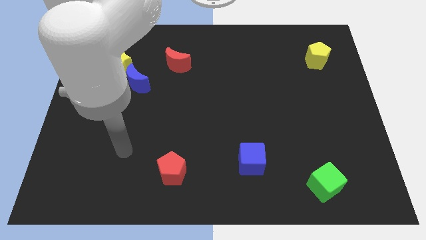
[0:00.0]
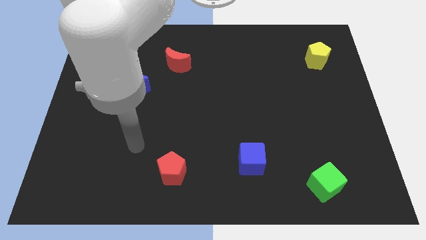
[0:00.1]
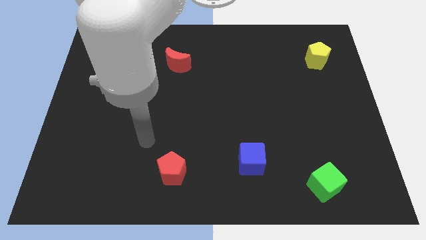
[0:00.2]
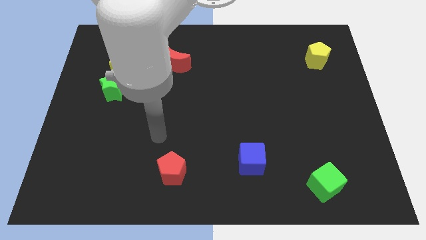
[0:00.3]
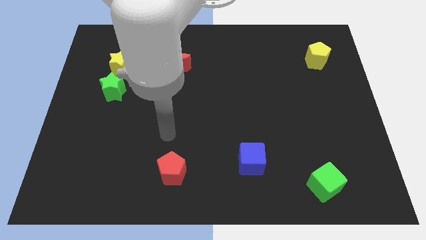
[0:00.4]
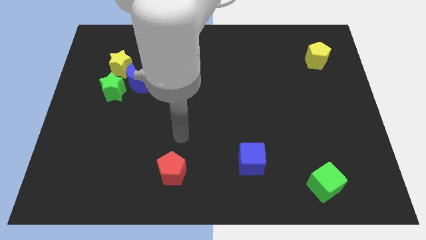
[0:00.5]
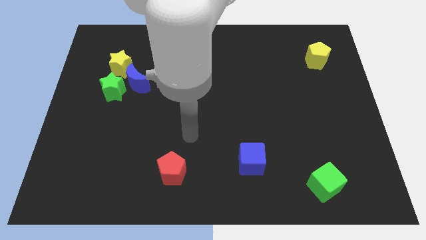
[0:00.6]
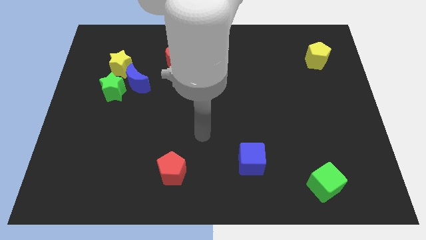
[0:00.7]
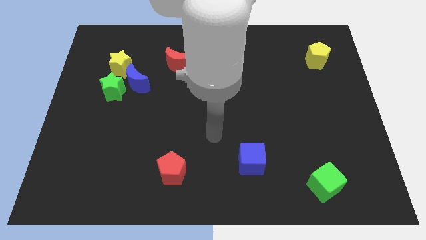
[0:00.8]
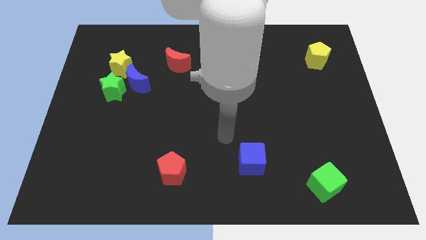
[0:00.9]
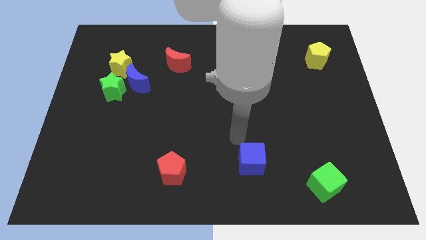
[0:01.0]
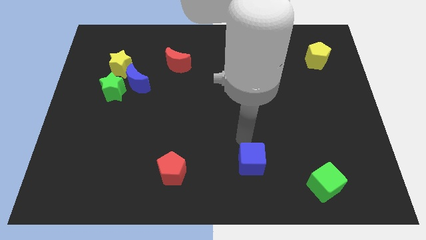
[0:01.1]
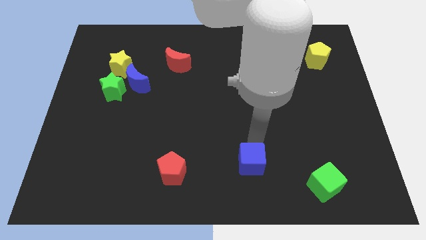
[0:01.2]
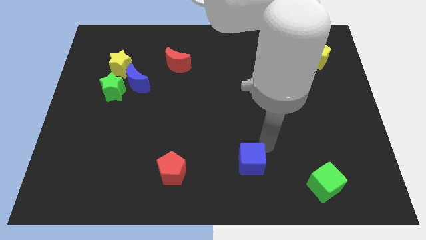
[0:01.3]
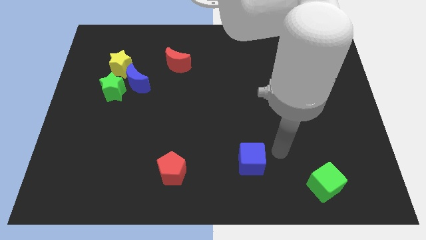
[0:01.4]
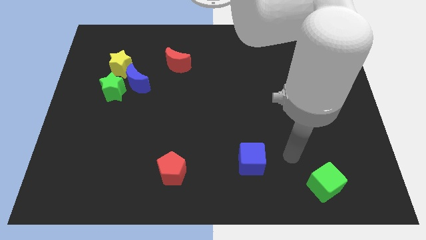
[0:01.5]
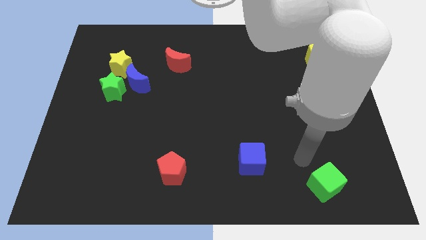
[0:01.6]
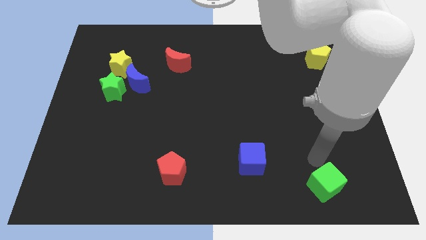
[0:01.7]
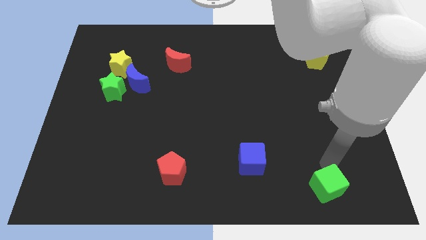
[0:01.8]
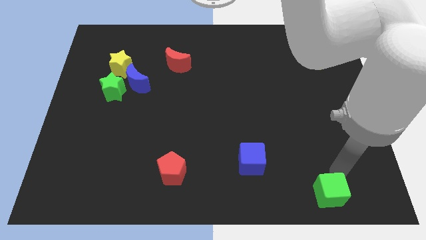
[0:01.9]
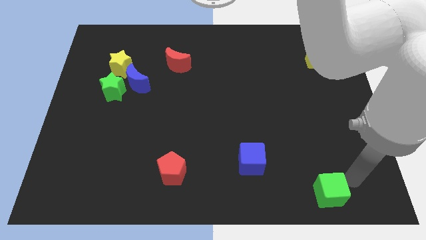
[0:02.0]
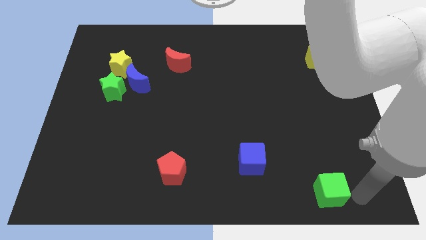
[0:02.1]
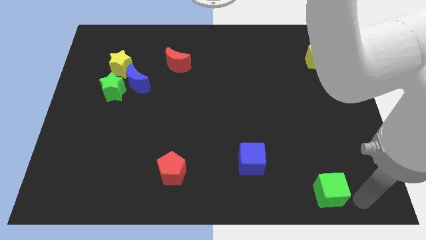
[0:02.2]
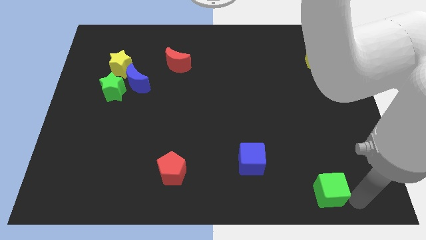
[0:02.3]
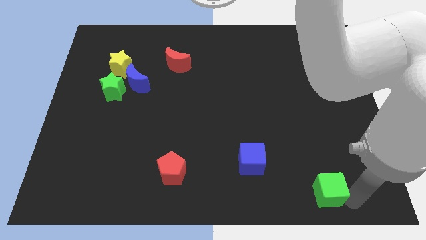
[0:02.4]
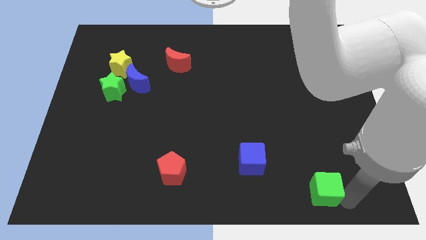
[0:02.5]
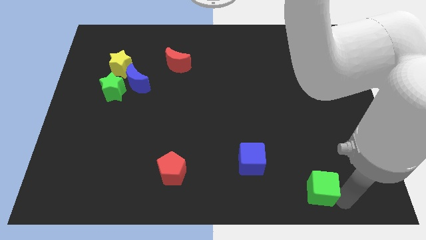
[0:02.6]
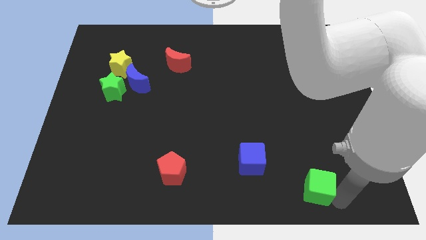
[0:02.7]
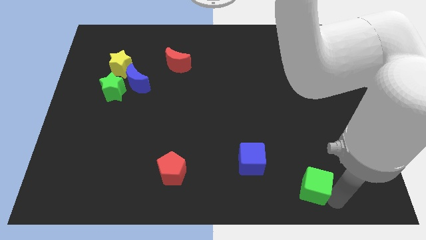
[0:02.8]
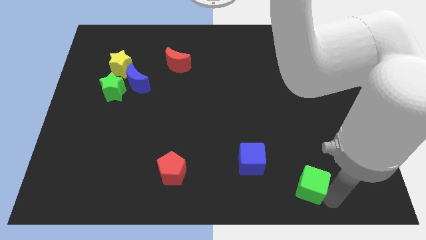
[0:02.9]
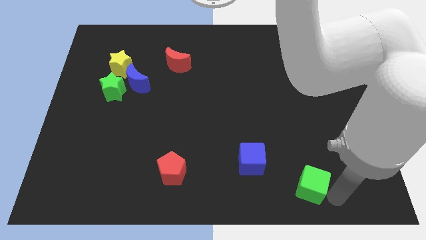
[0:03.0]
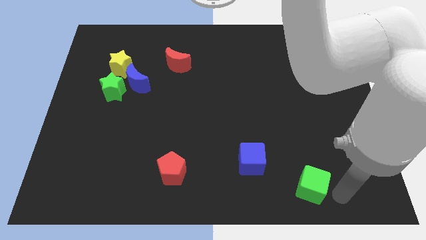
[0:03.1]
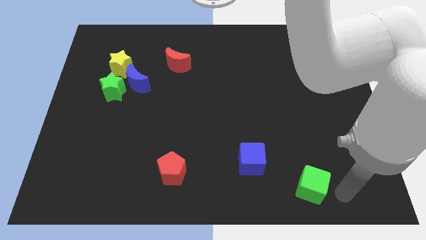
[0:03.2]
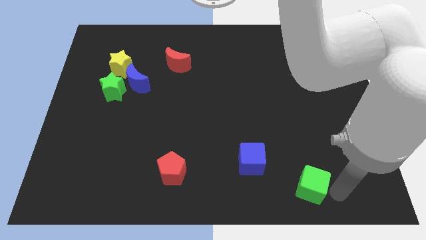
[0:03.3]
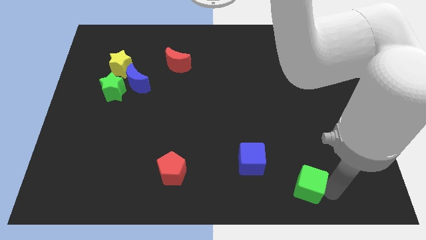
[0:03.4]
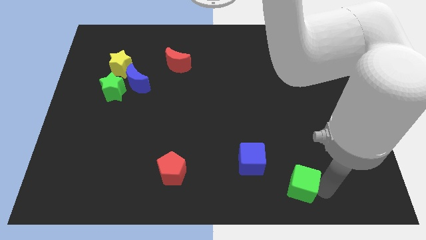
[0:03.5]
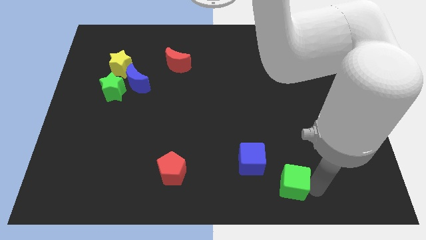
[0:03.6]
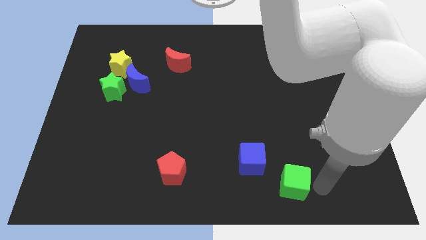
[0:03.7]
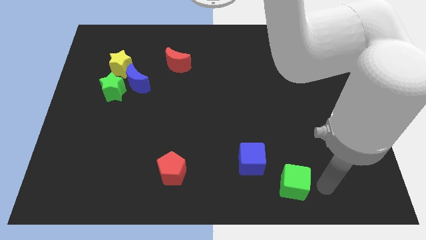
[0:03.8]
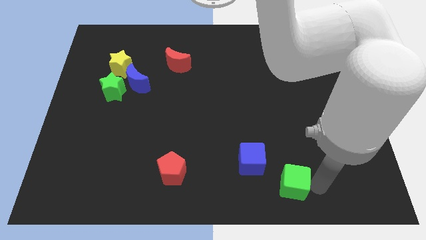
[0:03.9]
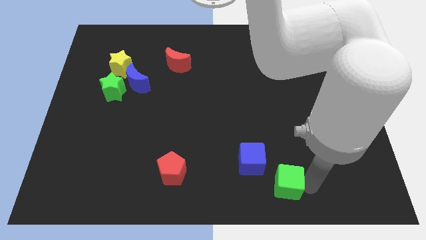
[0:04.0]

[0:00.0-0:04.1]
slightly slide the green cube to the left

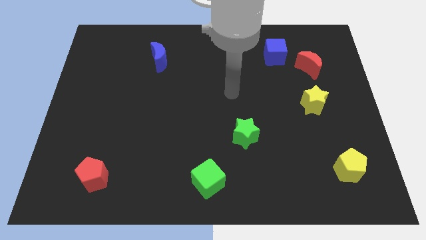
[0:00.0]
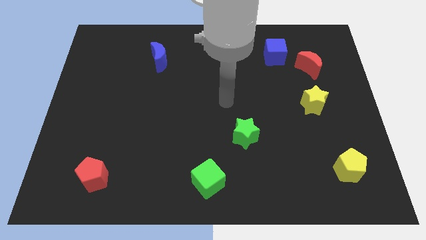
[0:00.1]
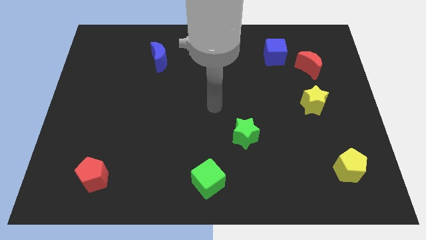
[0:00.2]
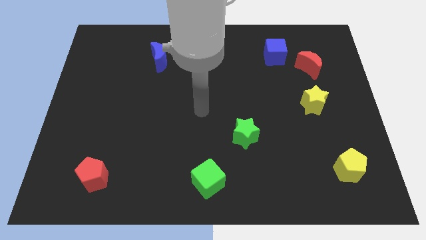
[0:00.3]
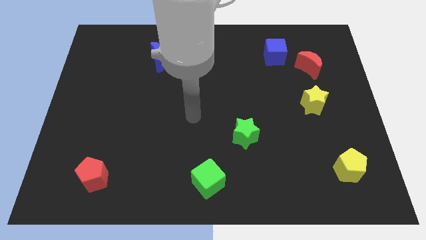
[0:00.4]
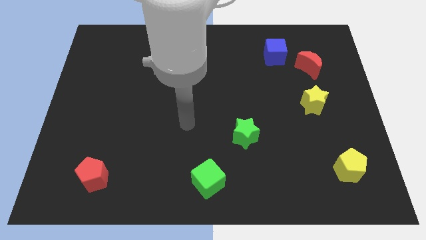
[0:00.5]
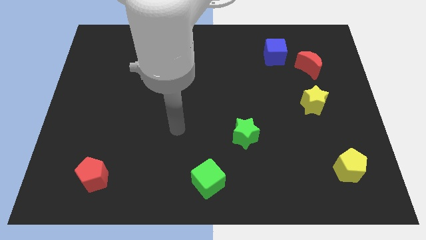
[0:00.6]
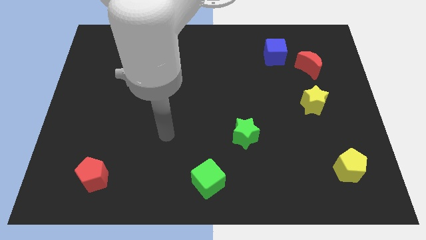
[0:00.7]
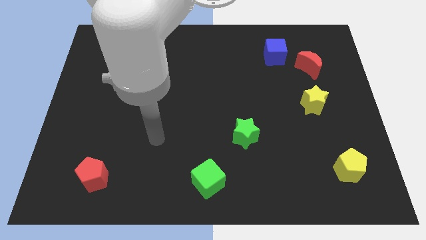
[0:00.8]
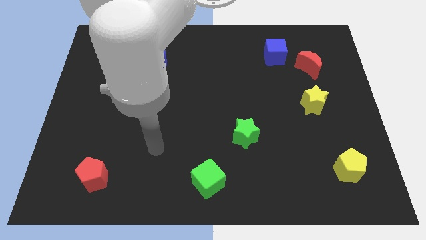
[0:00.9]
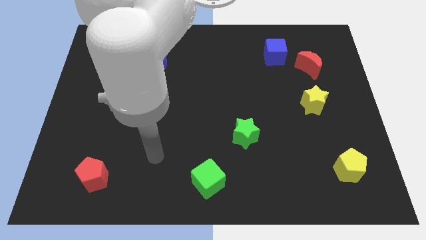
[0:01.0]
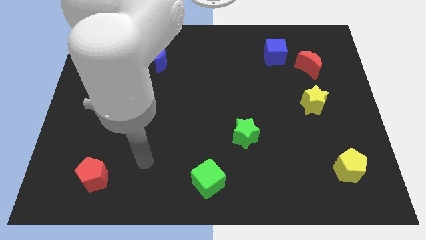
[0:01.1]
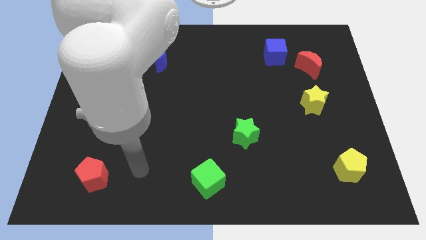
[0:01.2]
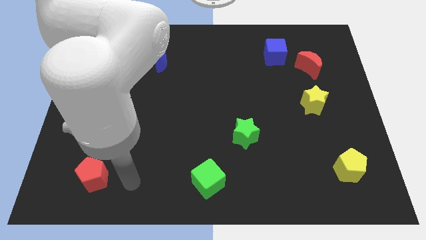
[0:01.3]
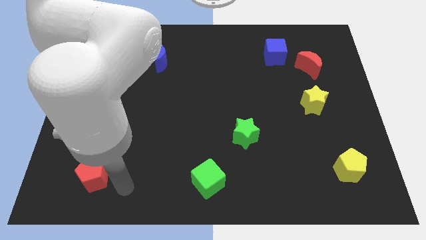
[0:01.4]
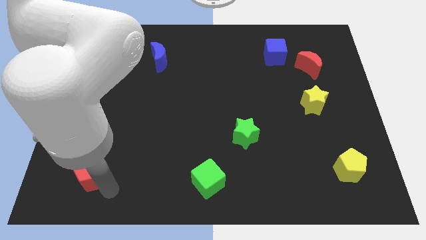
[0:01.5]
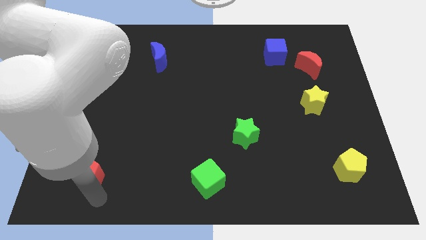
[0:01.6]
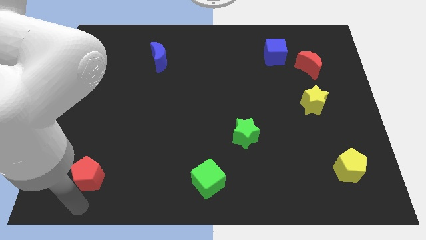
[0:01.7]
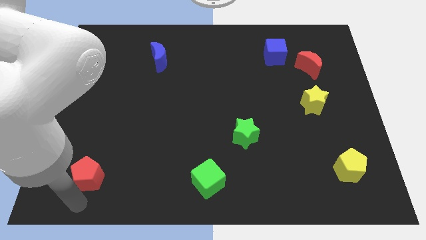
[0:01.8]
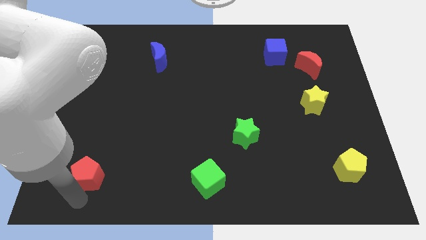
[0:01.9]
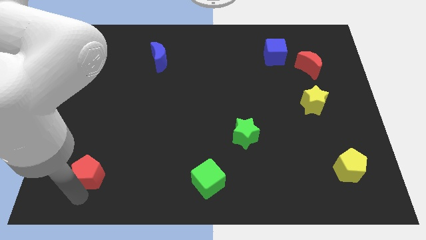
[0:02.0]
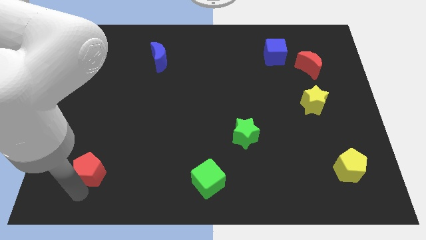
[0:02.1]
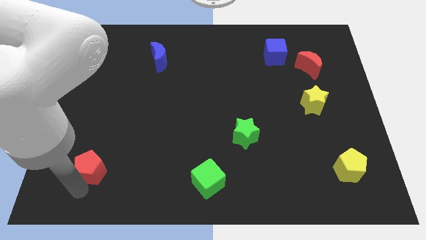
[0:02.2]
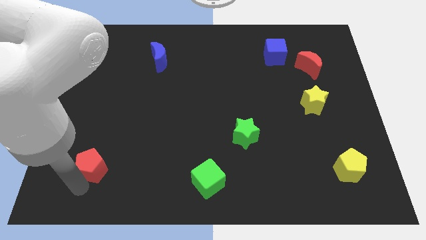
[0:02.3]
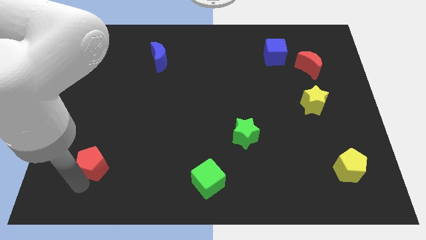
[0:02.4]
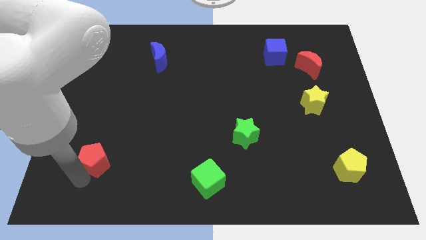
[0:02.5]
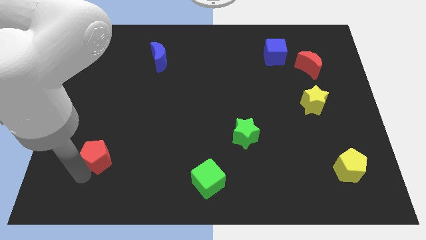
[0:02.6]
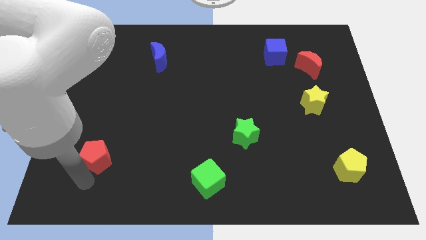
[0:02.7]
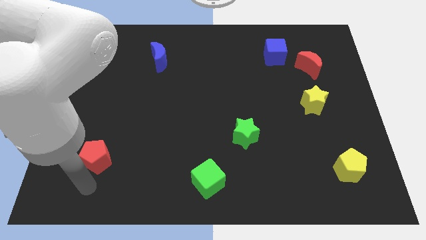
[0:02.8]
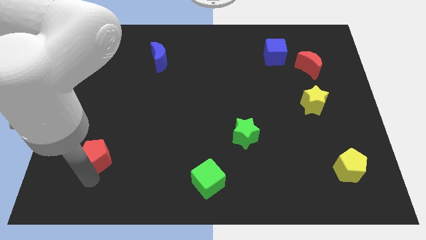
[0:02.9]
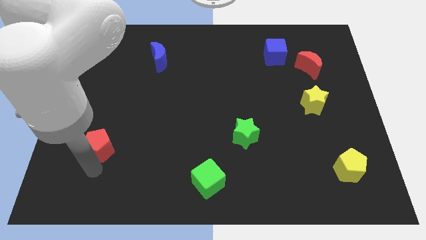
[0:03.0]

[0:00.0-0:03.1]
push the red pentagon up somewhat

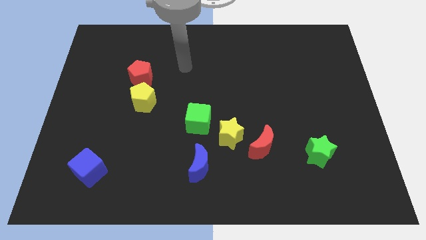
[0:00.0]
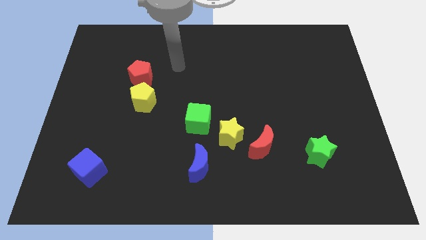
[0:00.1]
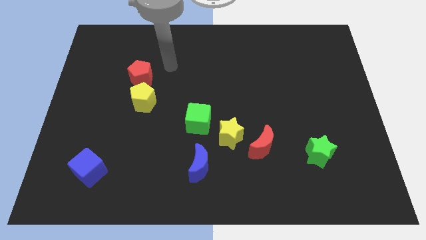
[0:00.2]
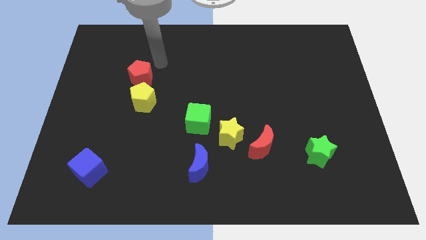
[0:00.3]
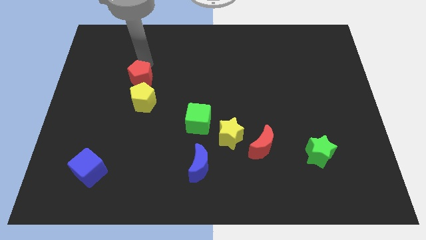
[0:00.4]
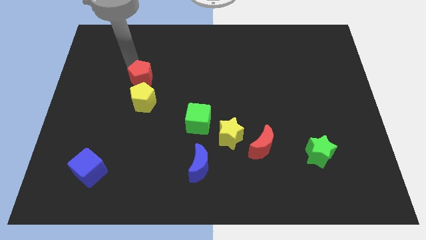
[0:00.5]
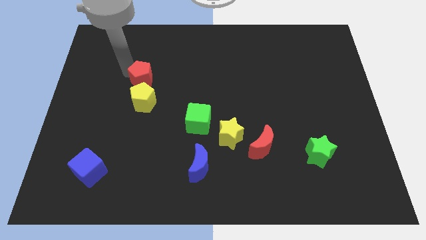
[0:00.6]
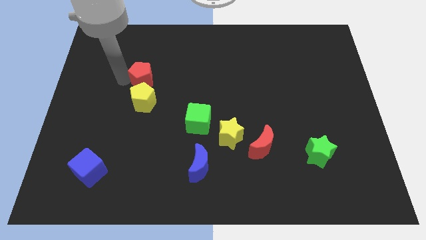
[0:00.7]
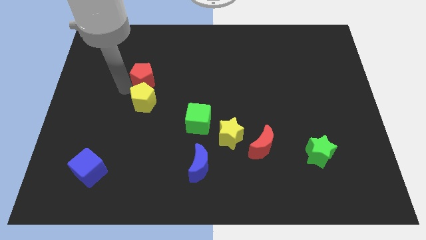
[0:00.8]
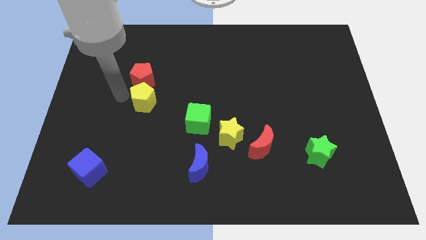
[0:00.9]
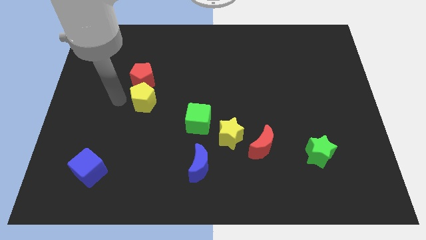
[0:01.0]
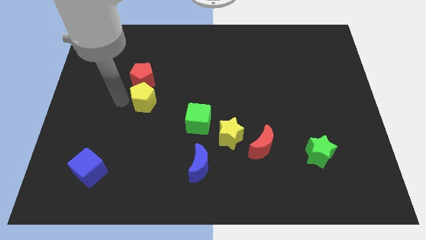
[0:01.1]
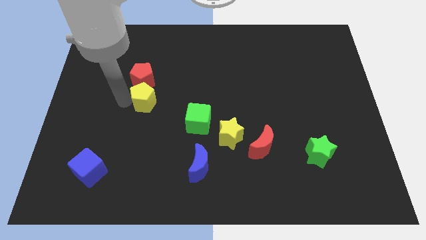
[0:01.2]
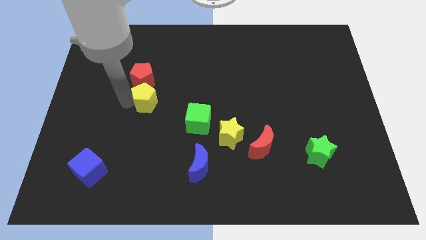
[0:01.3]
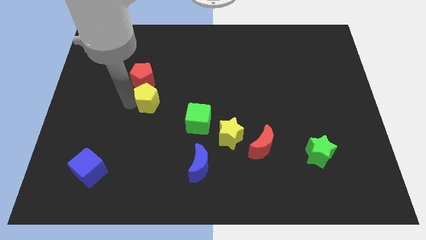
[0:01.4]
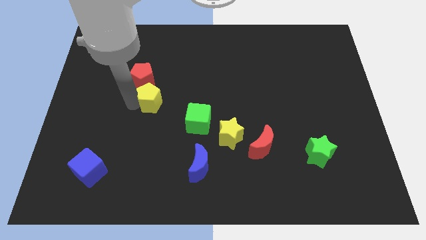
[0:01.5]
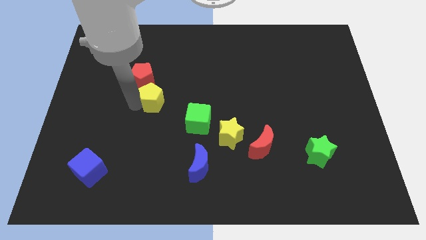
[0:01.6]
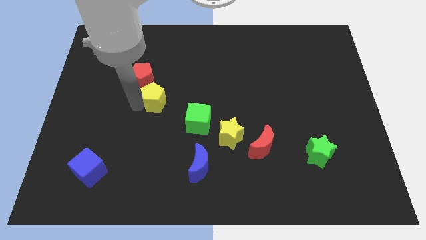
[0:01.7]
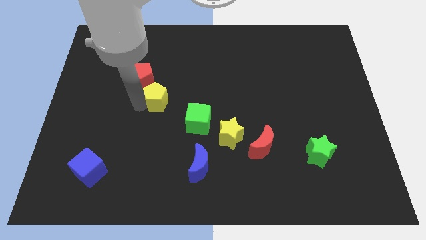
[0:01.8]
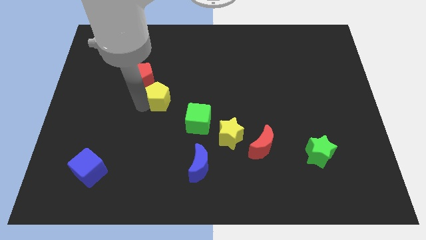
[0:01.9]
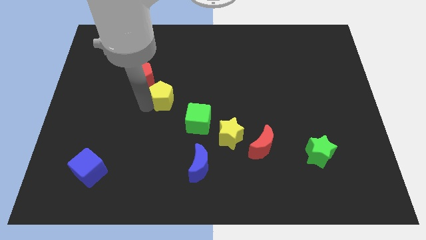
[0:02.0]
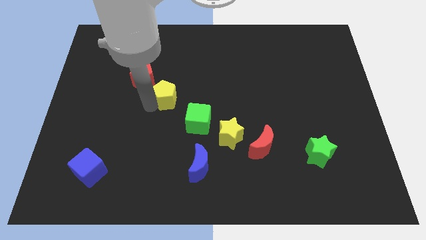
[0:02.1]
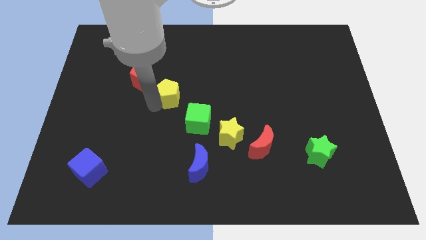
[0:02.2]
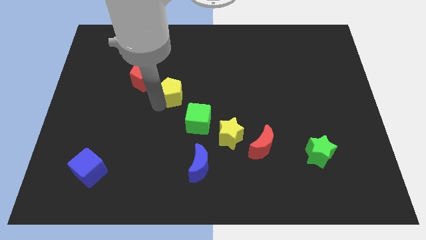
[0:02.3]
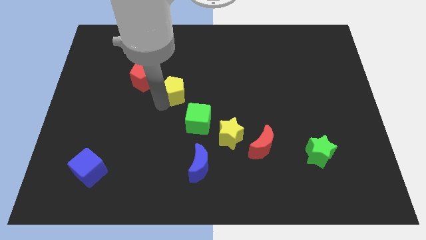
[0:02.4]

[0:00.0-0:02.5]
slide the yellow pentagon somewhat to the right
